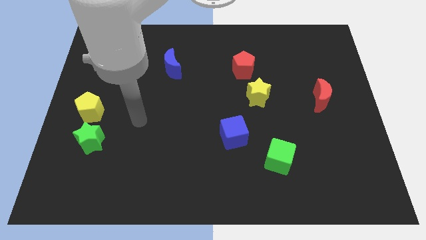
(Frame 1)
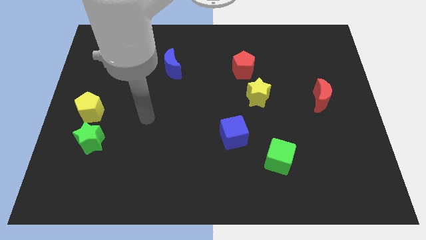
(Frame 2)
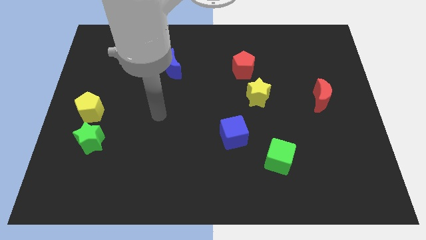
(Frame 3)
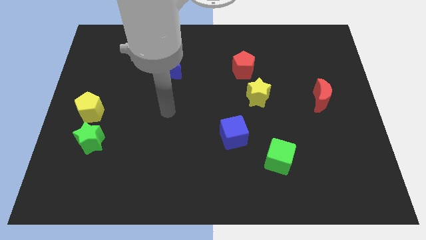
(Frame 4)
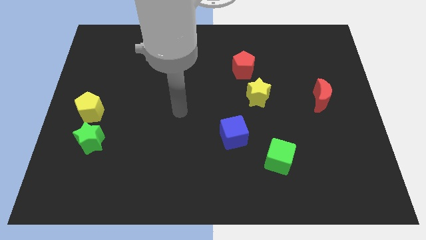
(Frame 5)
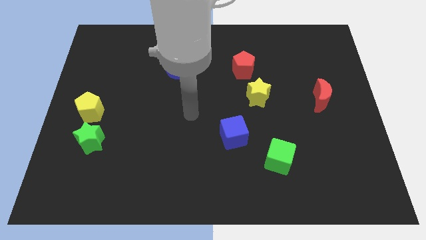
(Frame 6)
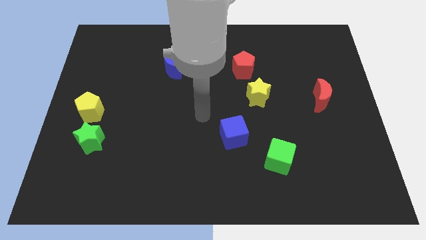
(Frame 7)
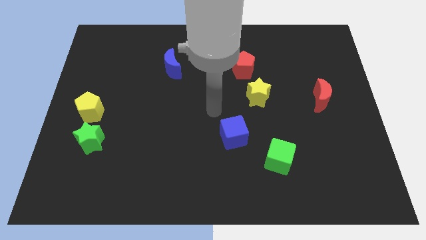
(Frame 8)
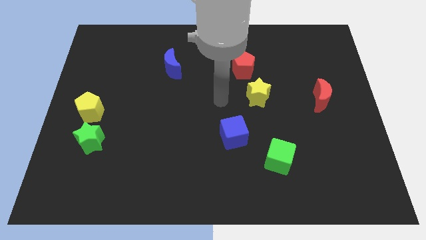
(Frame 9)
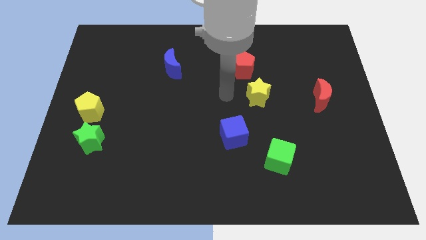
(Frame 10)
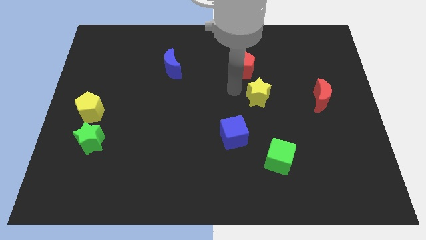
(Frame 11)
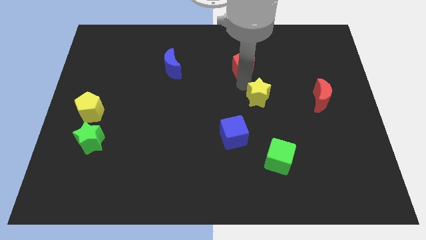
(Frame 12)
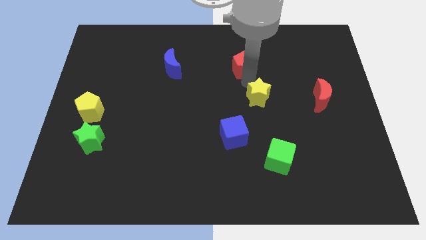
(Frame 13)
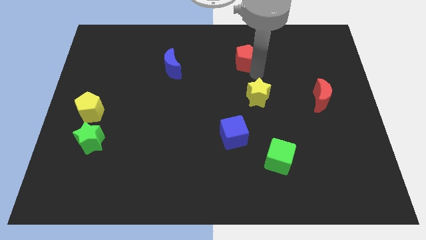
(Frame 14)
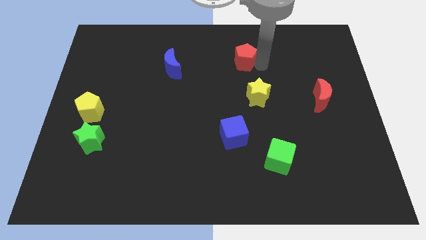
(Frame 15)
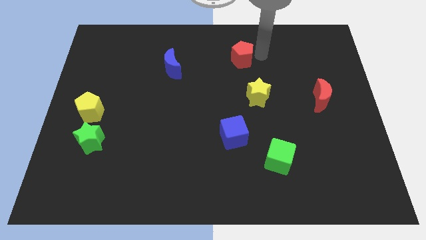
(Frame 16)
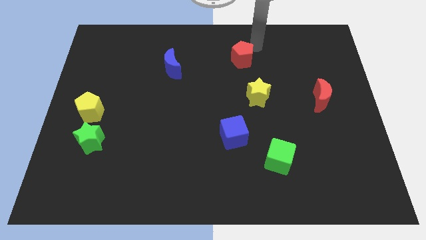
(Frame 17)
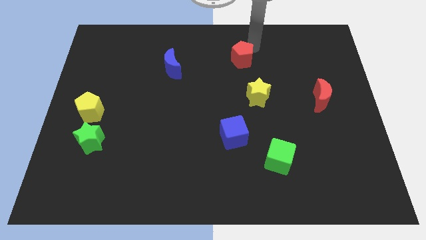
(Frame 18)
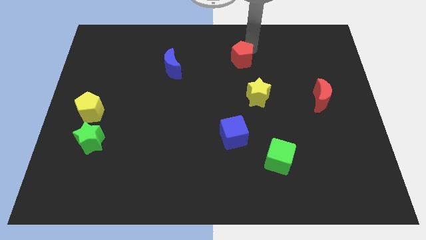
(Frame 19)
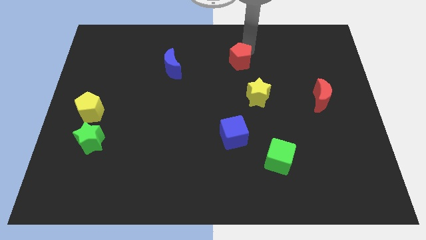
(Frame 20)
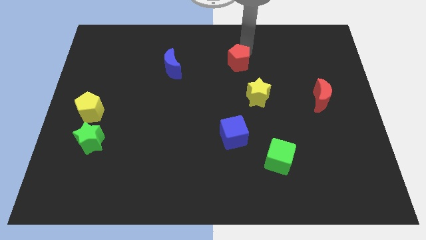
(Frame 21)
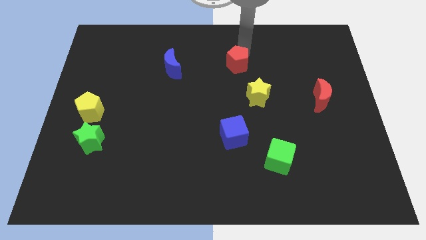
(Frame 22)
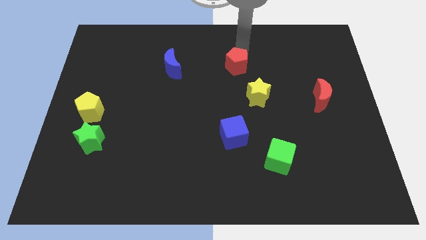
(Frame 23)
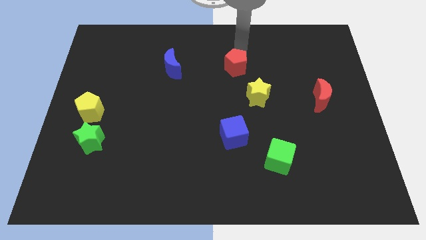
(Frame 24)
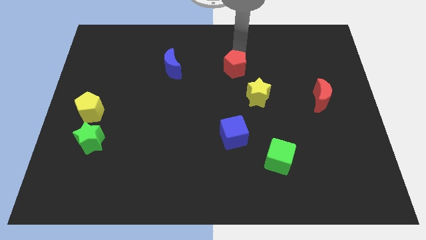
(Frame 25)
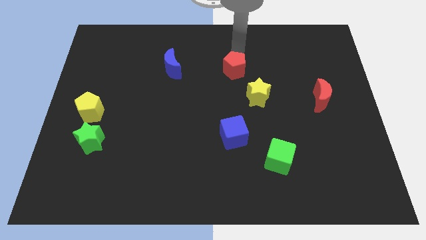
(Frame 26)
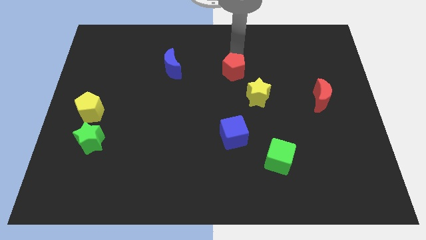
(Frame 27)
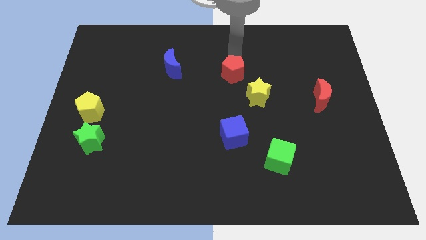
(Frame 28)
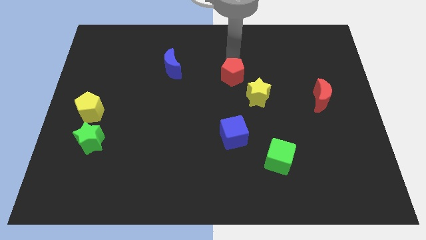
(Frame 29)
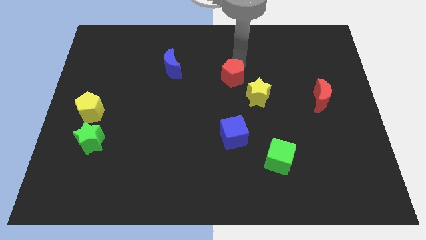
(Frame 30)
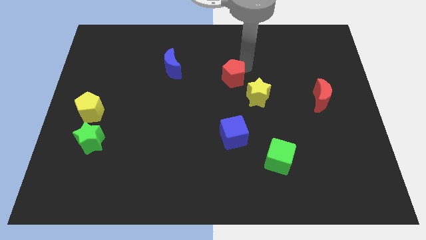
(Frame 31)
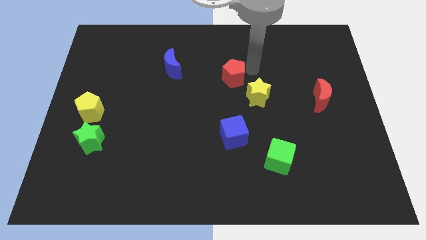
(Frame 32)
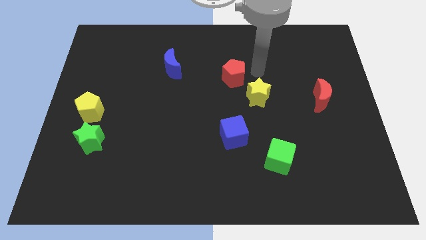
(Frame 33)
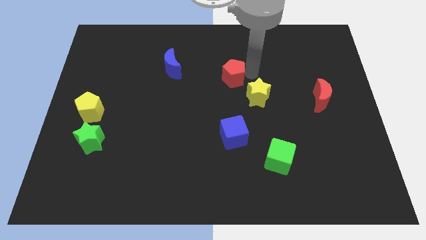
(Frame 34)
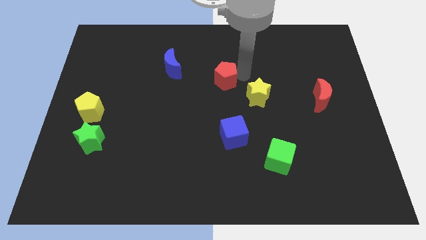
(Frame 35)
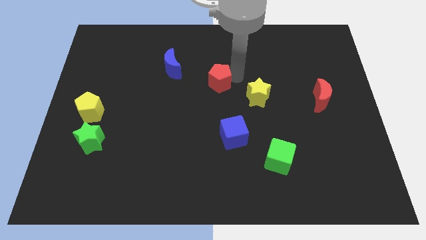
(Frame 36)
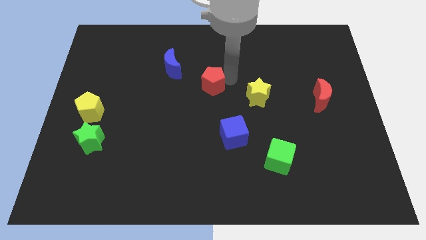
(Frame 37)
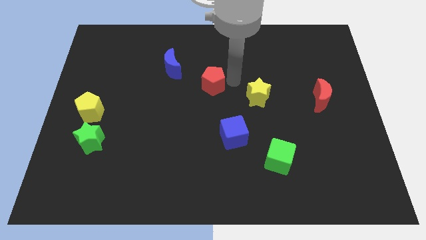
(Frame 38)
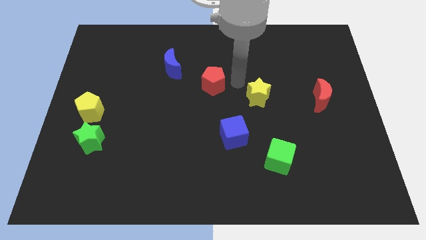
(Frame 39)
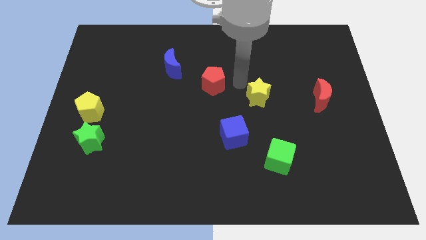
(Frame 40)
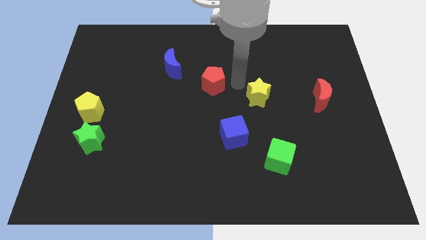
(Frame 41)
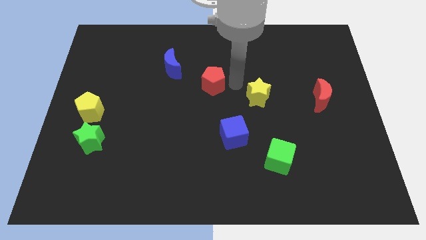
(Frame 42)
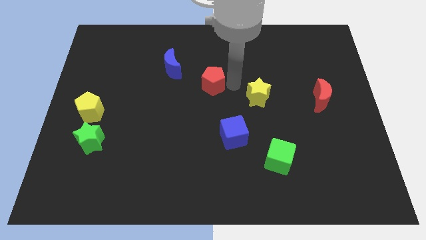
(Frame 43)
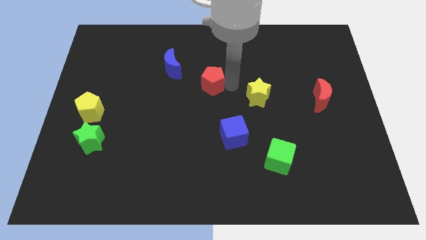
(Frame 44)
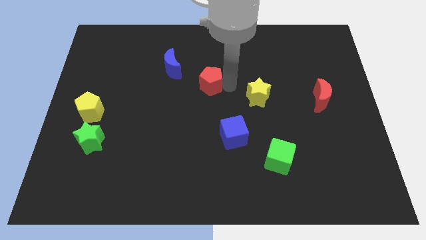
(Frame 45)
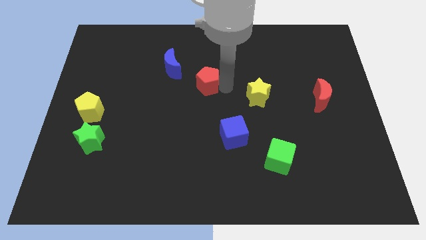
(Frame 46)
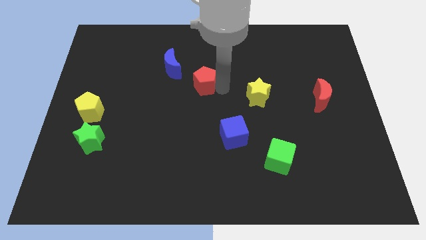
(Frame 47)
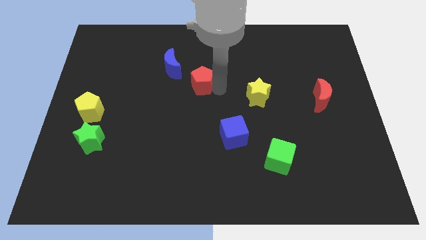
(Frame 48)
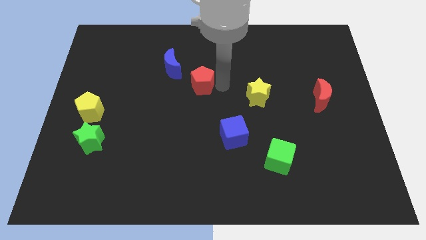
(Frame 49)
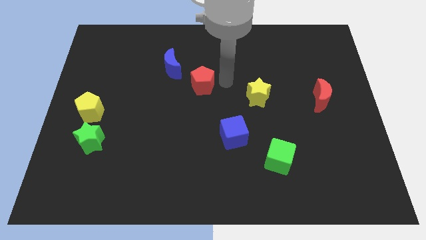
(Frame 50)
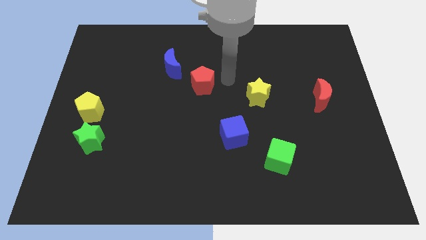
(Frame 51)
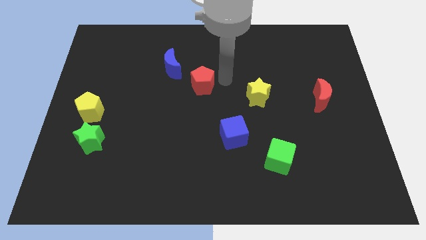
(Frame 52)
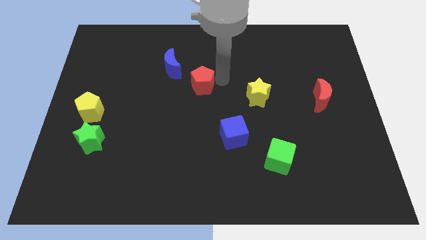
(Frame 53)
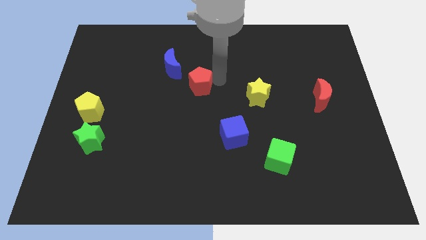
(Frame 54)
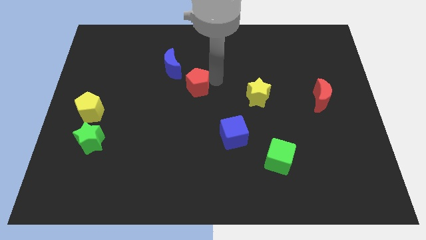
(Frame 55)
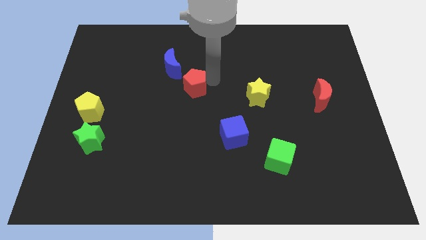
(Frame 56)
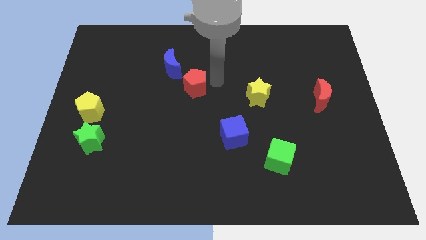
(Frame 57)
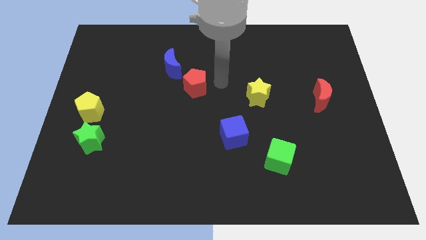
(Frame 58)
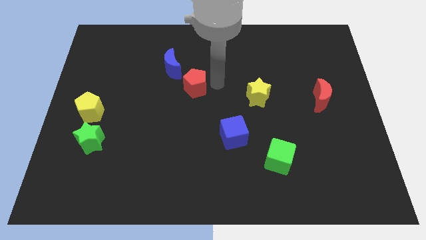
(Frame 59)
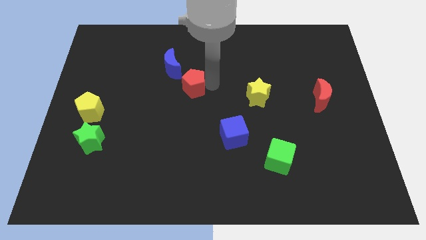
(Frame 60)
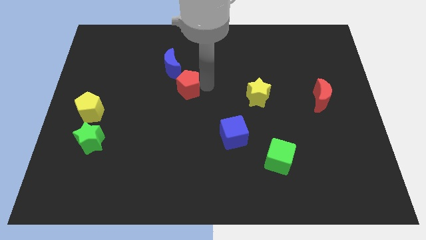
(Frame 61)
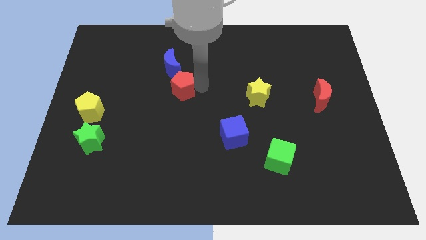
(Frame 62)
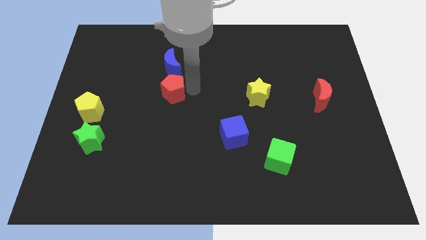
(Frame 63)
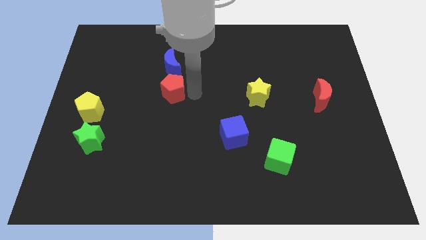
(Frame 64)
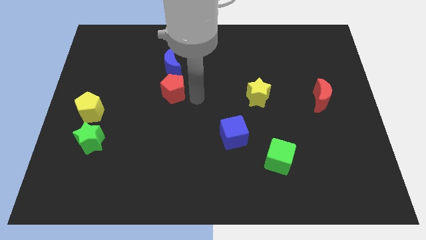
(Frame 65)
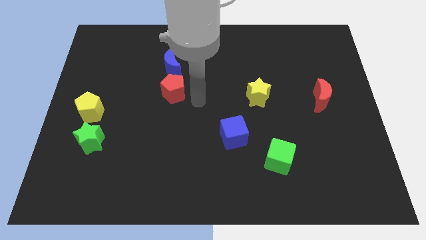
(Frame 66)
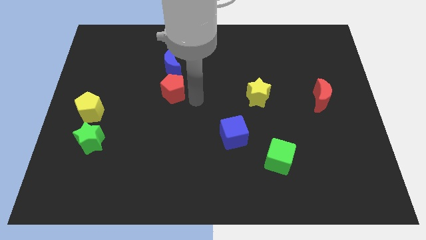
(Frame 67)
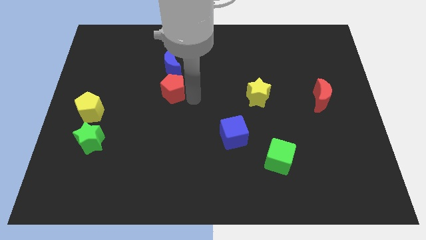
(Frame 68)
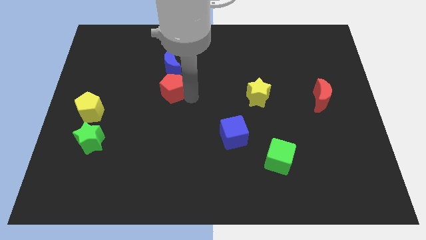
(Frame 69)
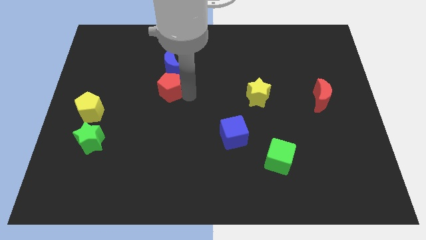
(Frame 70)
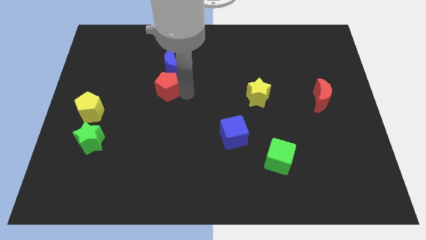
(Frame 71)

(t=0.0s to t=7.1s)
move the red pentagon to the bottom left of the blue moon
